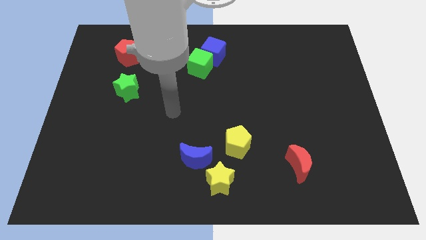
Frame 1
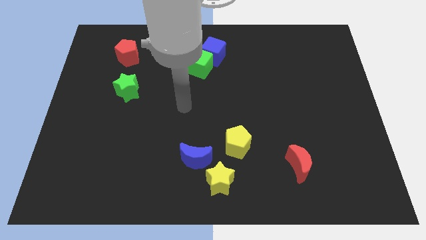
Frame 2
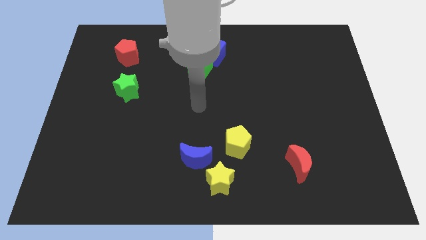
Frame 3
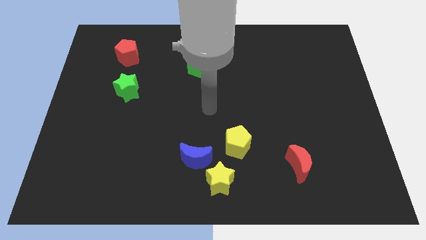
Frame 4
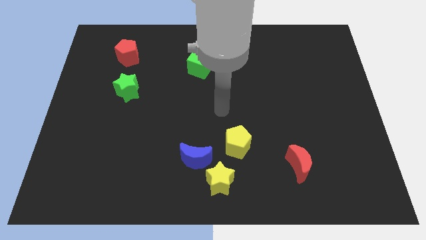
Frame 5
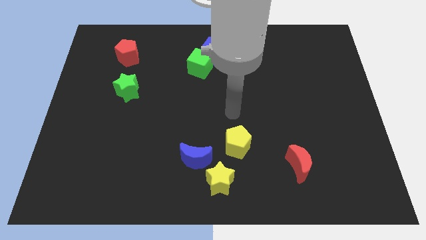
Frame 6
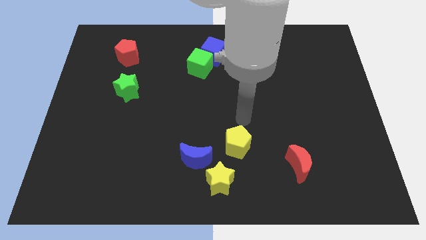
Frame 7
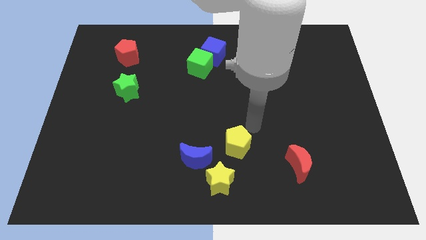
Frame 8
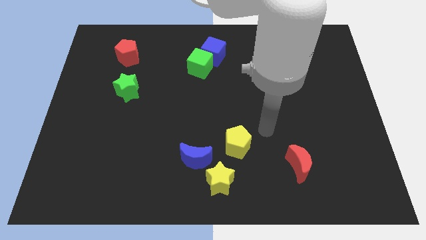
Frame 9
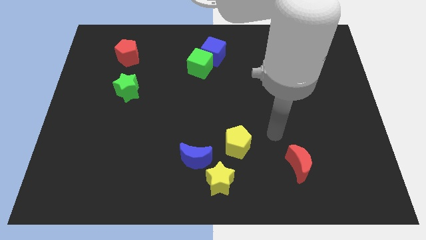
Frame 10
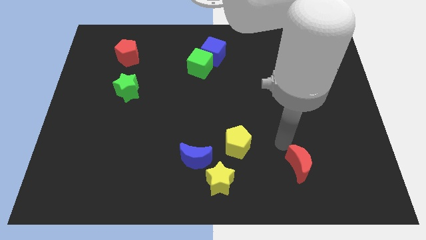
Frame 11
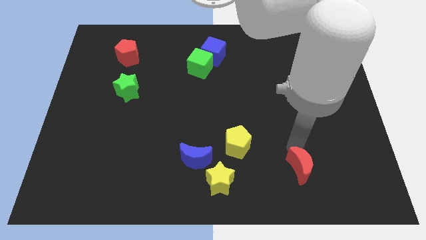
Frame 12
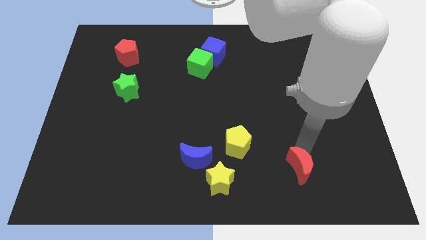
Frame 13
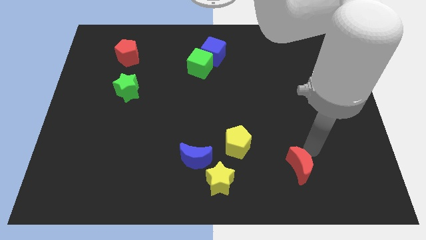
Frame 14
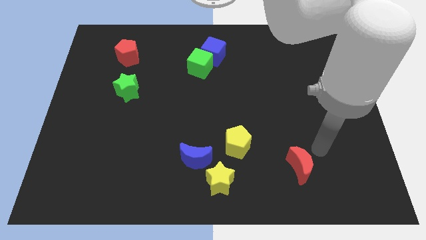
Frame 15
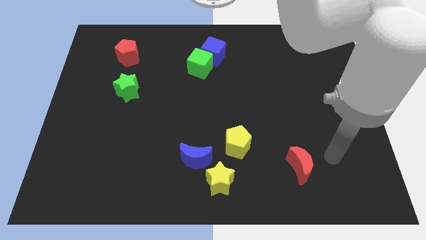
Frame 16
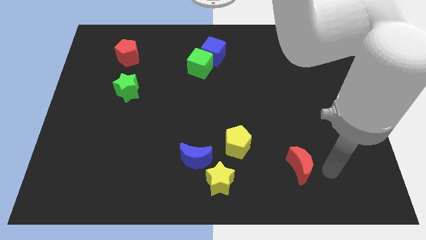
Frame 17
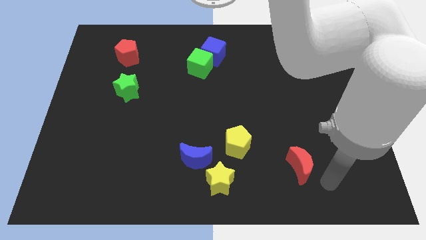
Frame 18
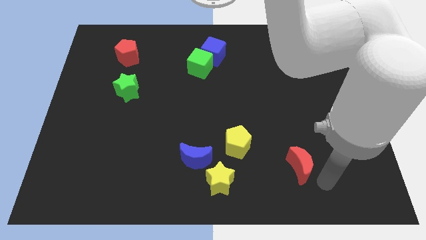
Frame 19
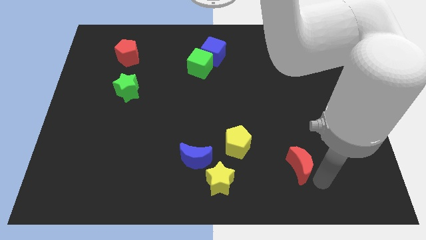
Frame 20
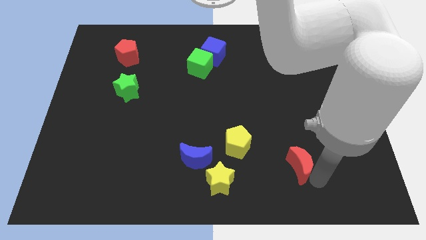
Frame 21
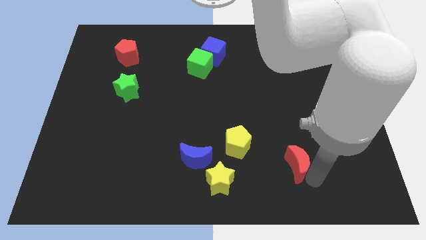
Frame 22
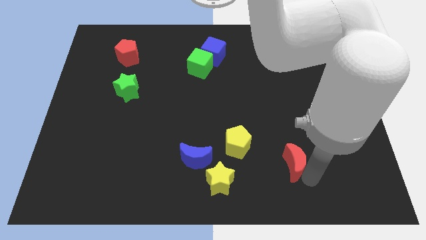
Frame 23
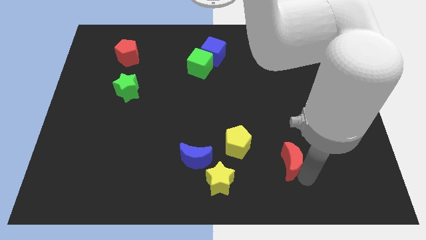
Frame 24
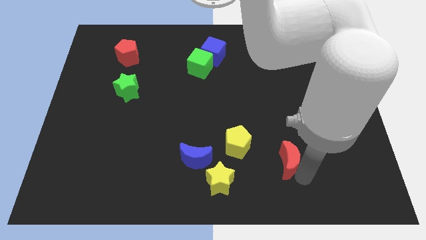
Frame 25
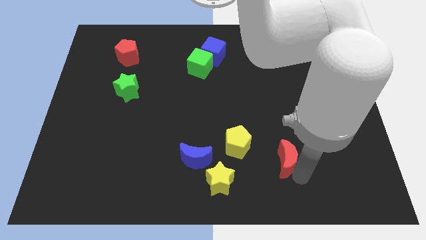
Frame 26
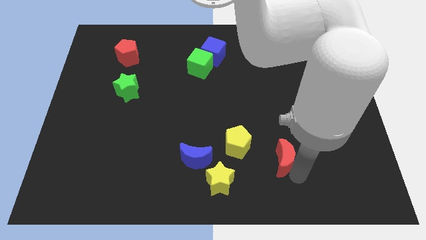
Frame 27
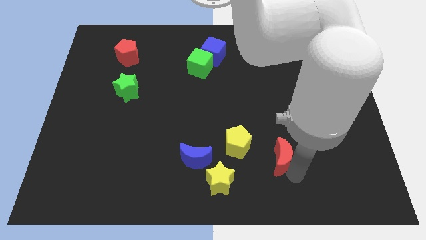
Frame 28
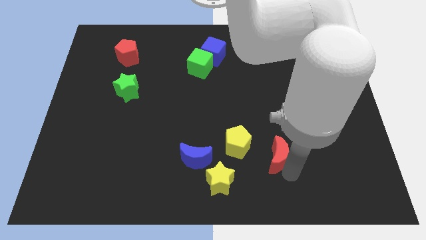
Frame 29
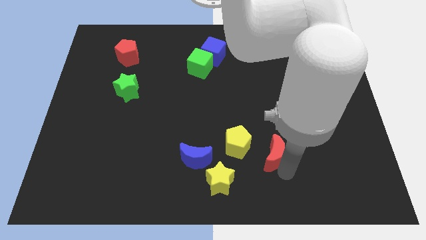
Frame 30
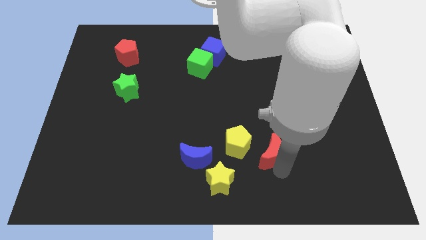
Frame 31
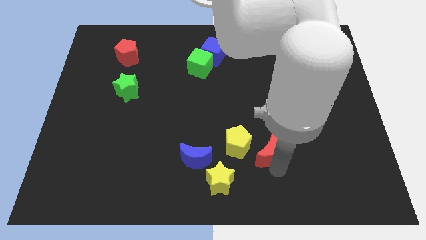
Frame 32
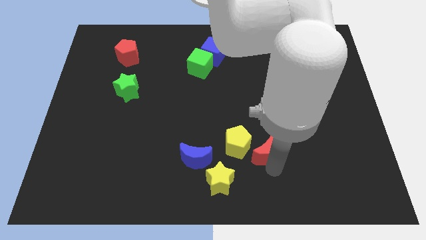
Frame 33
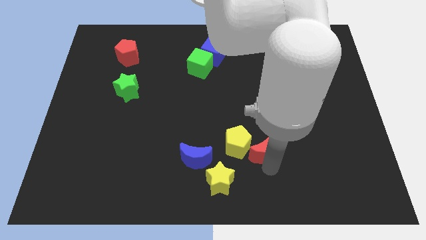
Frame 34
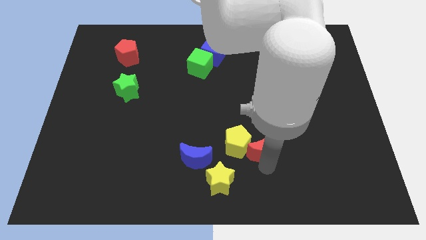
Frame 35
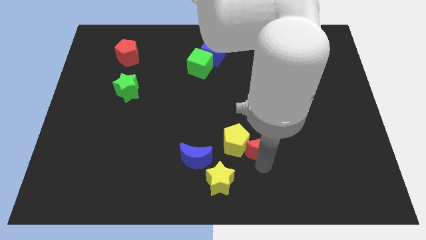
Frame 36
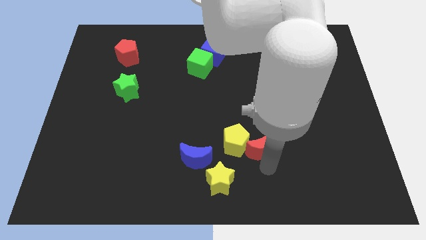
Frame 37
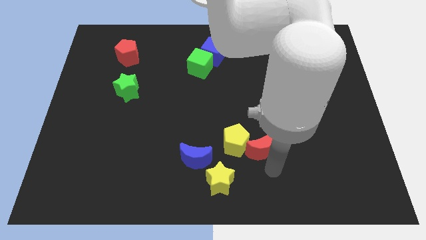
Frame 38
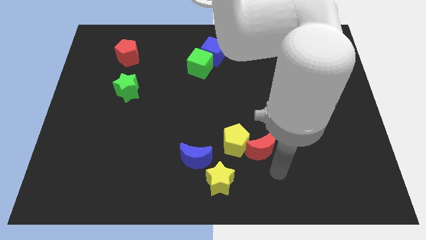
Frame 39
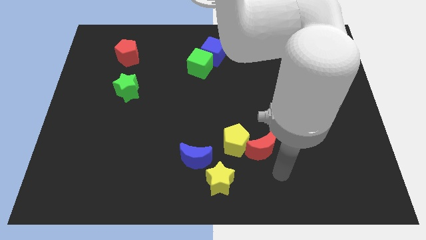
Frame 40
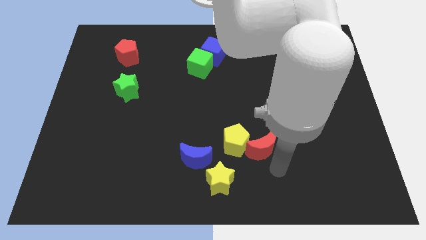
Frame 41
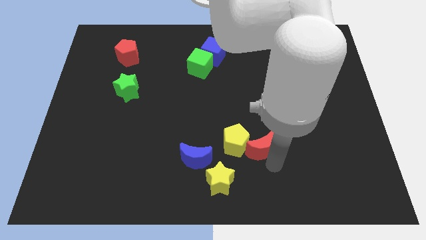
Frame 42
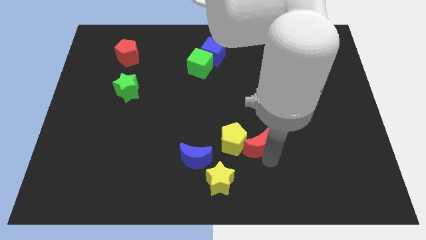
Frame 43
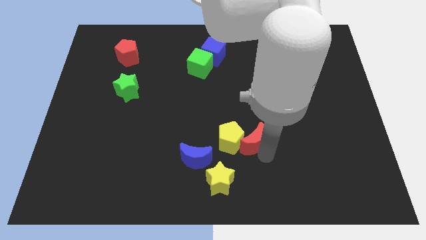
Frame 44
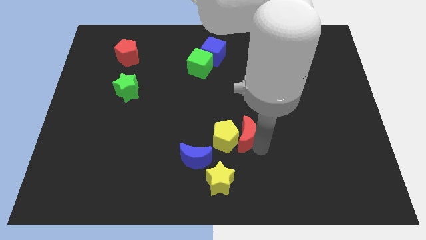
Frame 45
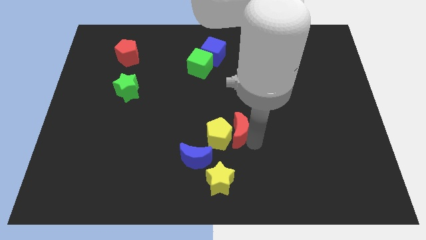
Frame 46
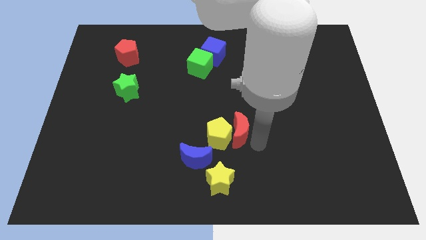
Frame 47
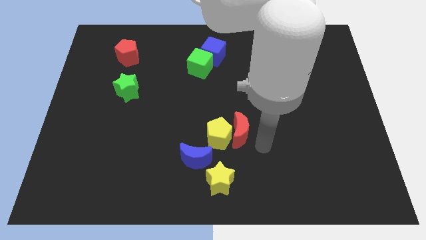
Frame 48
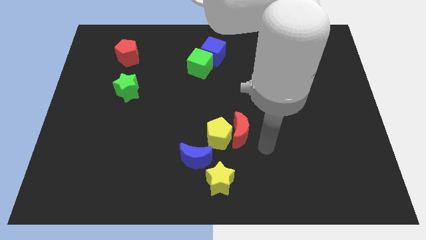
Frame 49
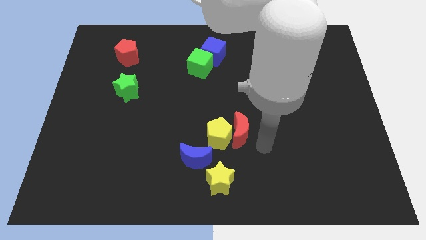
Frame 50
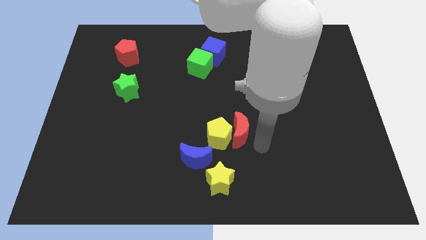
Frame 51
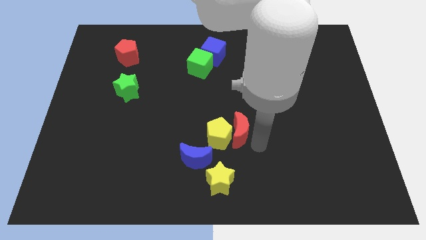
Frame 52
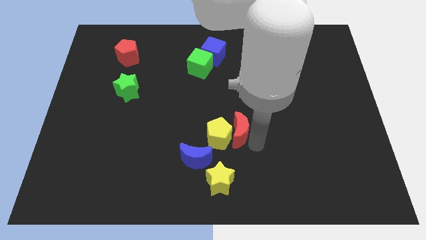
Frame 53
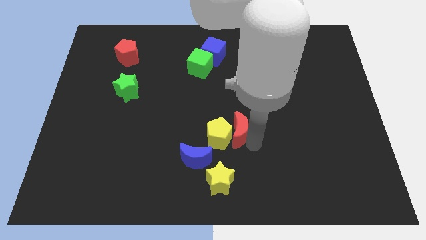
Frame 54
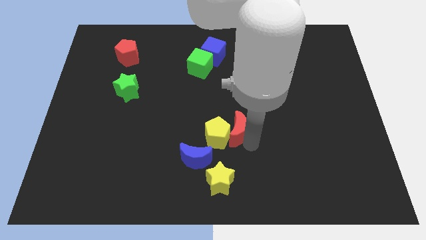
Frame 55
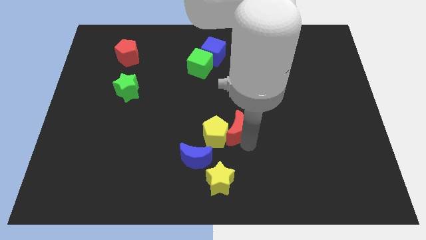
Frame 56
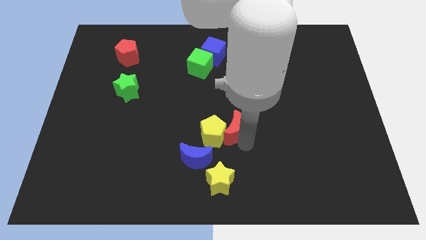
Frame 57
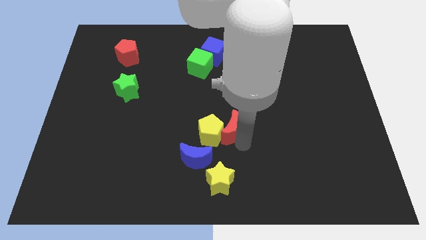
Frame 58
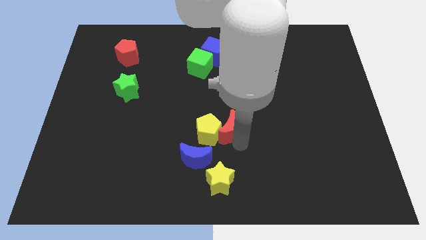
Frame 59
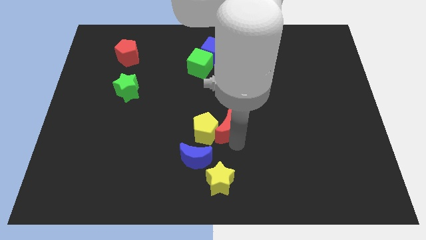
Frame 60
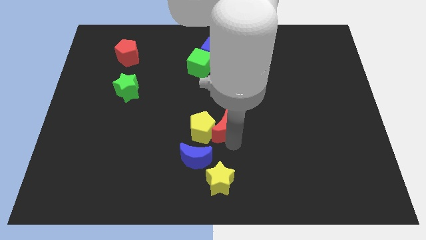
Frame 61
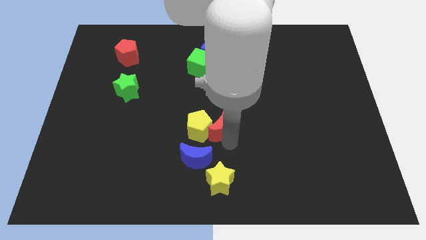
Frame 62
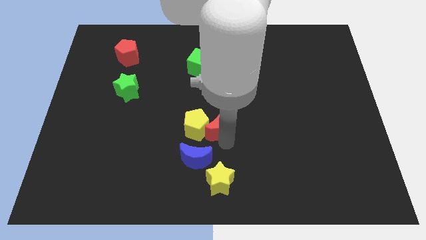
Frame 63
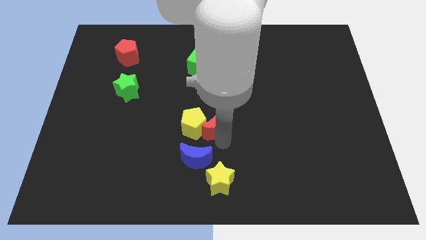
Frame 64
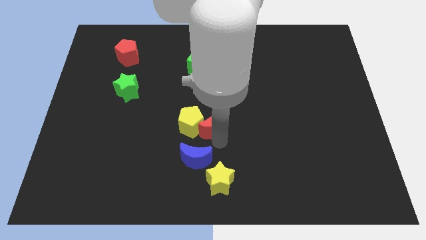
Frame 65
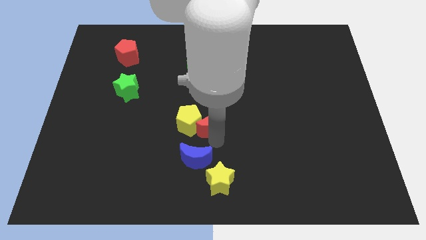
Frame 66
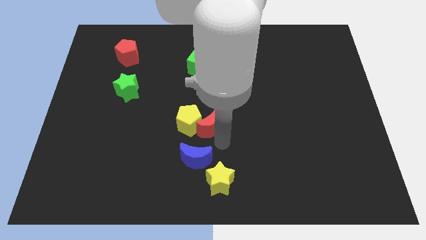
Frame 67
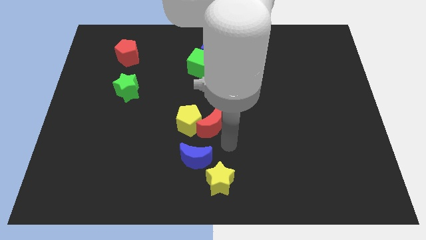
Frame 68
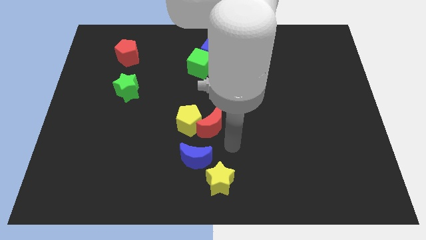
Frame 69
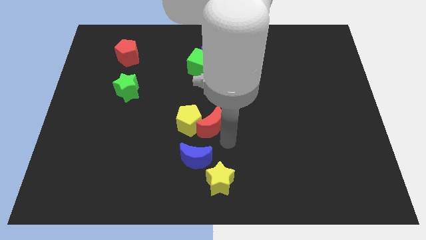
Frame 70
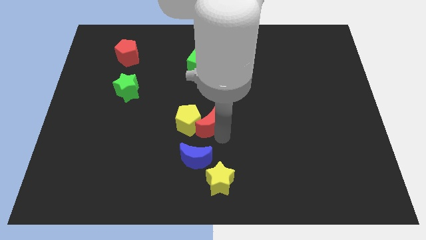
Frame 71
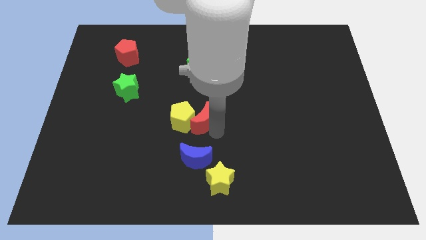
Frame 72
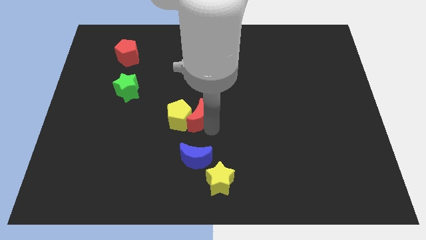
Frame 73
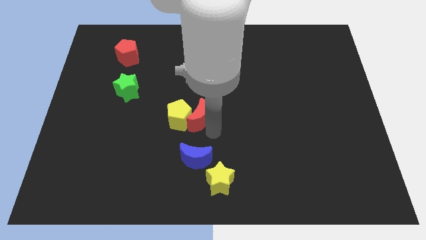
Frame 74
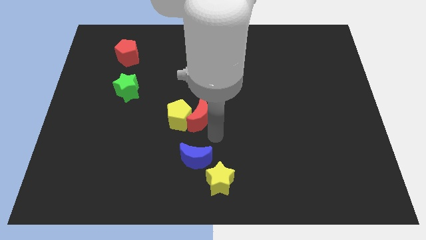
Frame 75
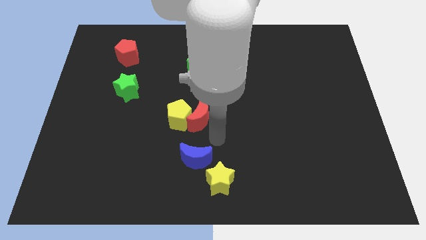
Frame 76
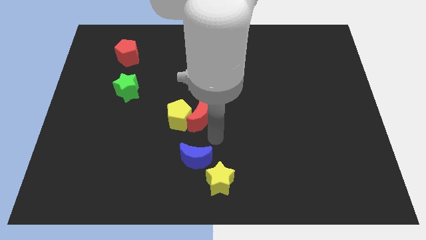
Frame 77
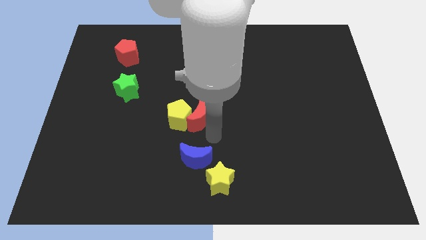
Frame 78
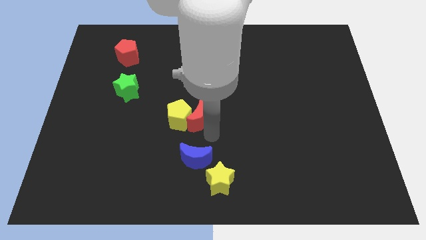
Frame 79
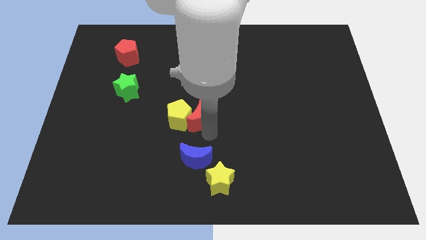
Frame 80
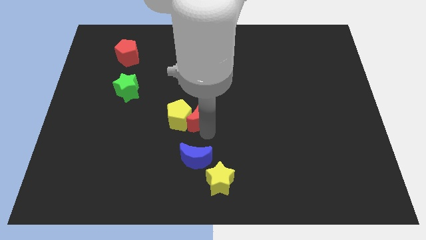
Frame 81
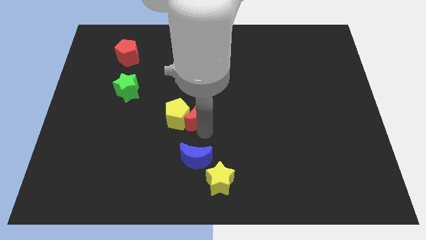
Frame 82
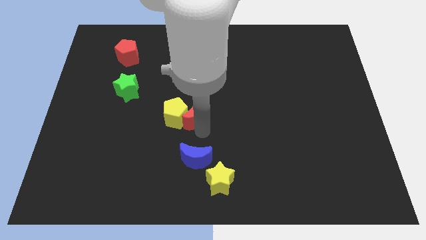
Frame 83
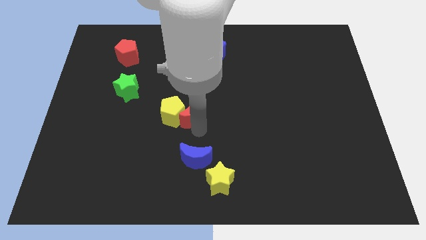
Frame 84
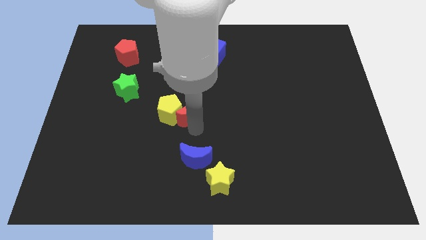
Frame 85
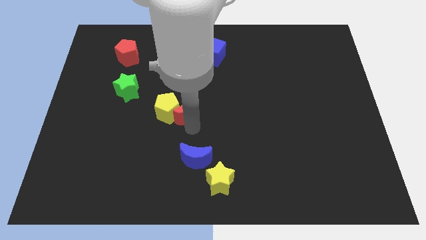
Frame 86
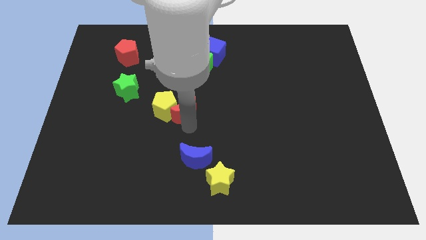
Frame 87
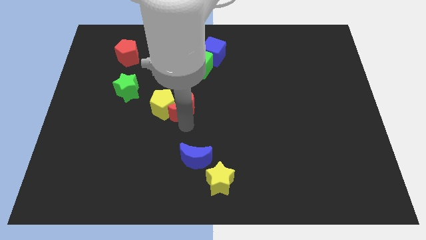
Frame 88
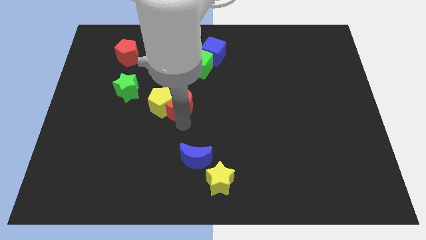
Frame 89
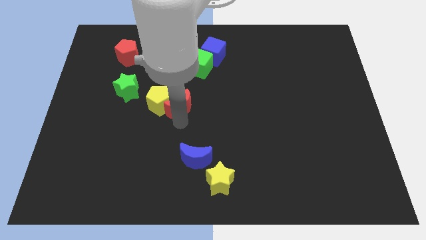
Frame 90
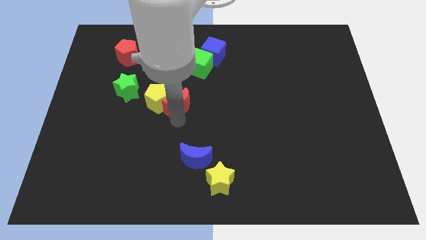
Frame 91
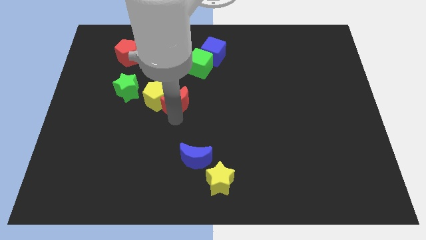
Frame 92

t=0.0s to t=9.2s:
slide the red moon right of the green star
